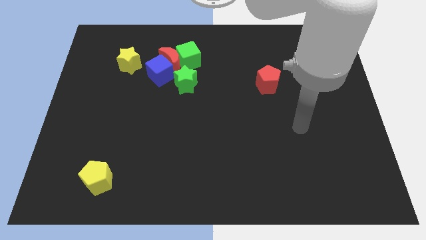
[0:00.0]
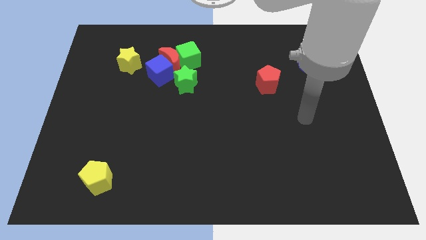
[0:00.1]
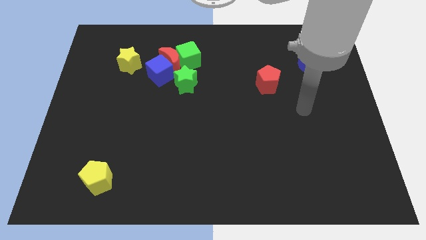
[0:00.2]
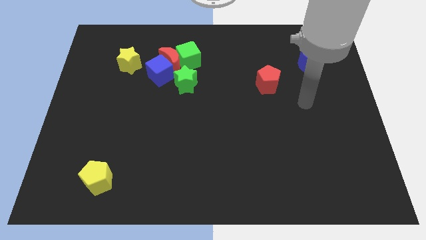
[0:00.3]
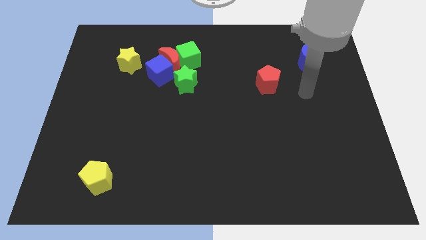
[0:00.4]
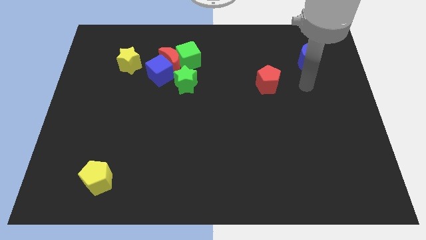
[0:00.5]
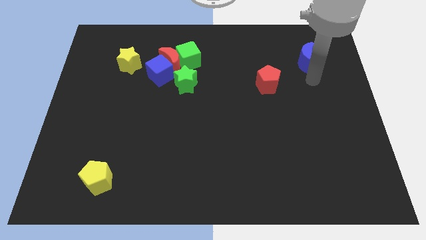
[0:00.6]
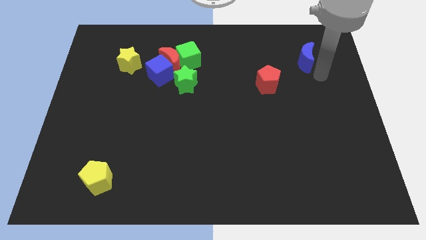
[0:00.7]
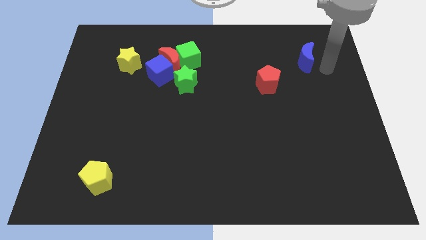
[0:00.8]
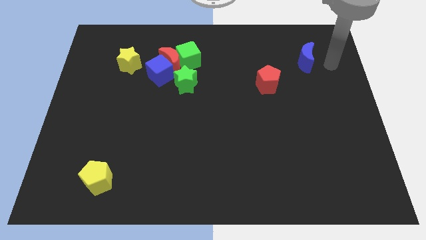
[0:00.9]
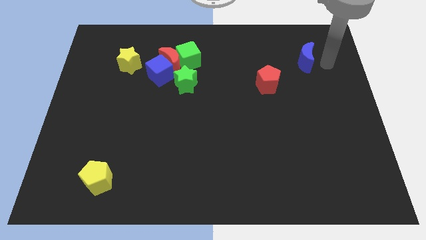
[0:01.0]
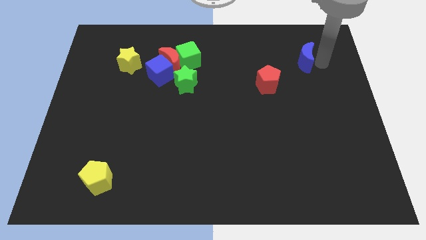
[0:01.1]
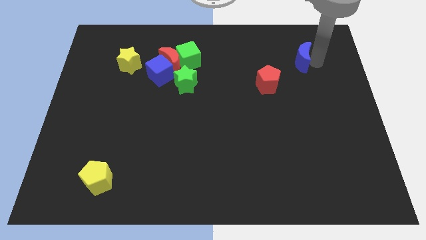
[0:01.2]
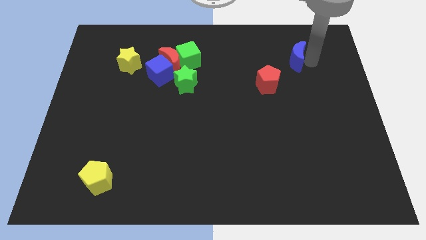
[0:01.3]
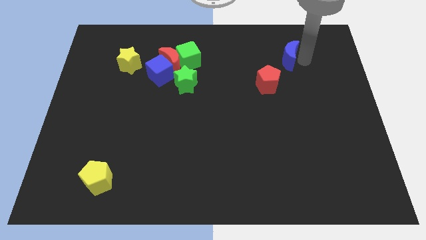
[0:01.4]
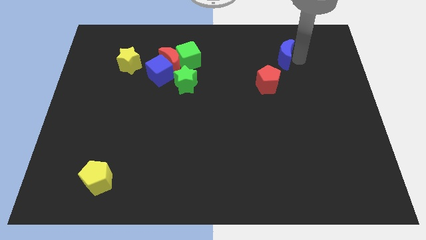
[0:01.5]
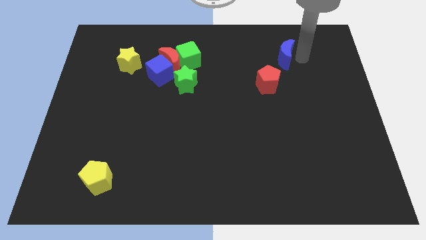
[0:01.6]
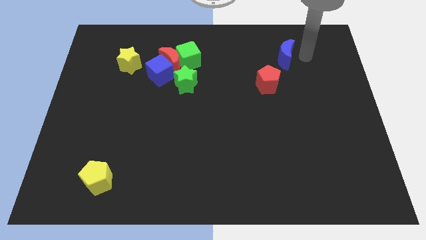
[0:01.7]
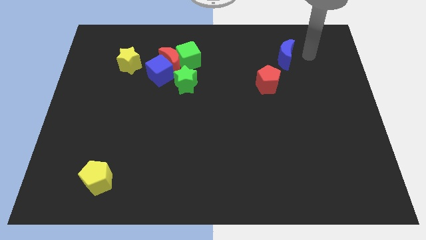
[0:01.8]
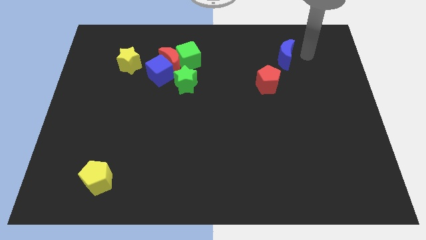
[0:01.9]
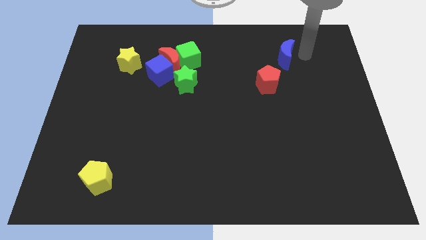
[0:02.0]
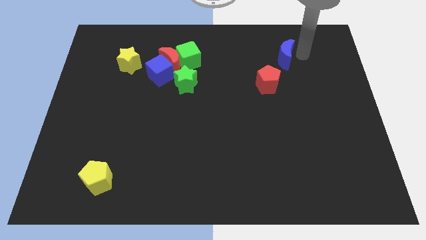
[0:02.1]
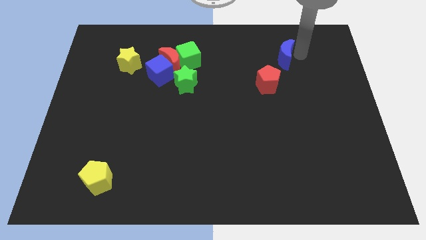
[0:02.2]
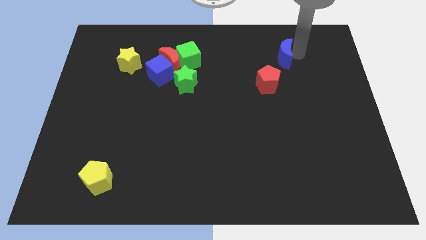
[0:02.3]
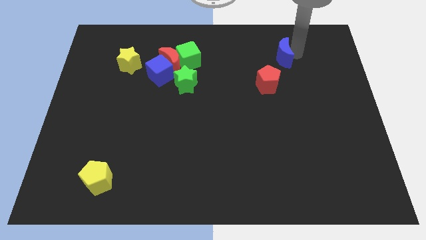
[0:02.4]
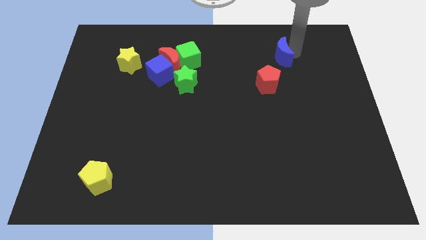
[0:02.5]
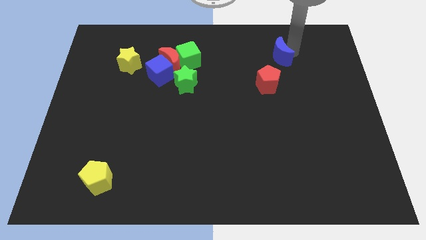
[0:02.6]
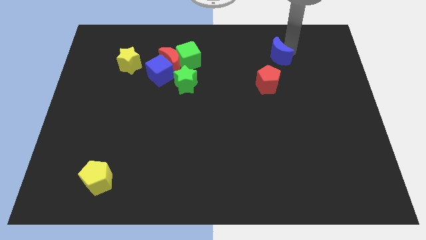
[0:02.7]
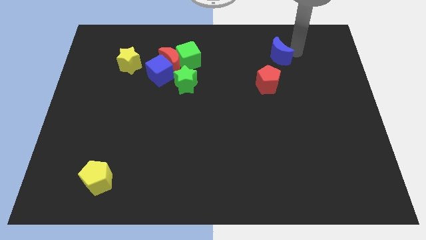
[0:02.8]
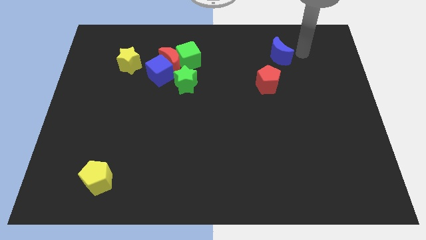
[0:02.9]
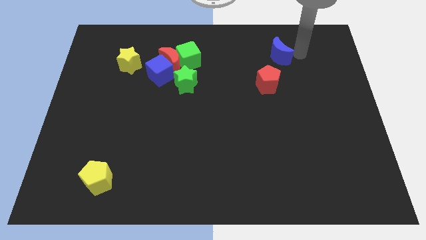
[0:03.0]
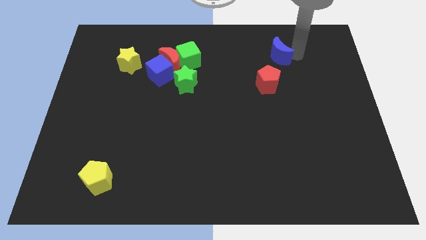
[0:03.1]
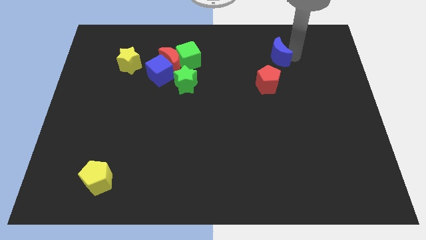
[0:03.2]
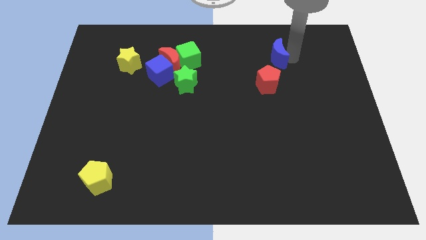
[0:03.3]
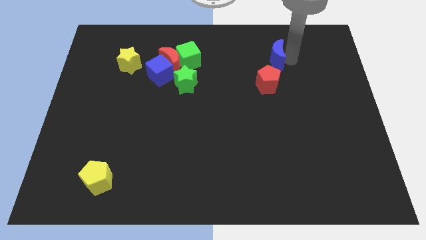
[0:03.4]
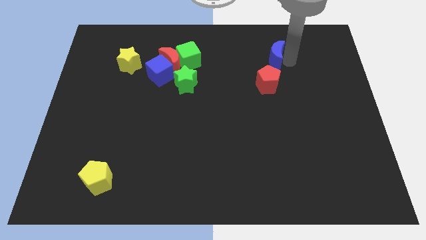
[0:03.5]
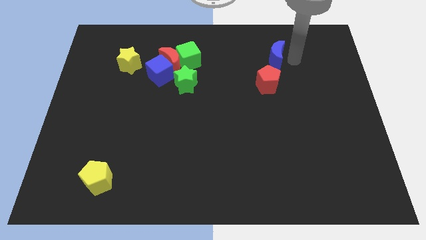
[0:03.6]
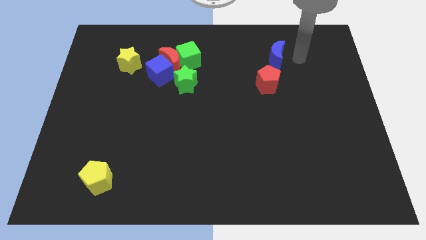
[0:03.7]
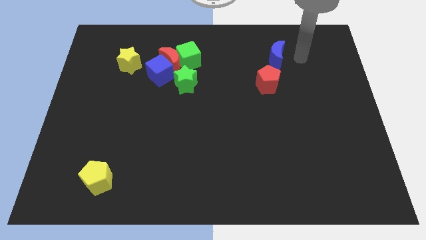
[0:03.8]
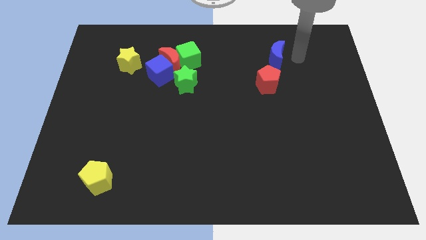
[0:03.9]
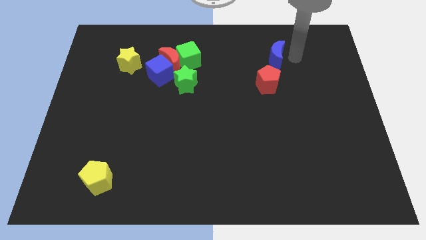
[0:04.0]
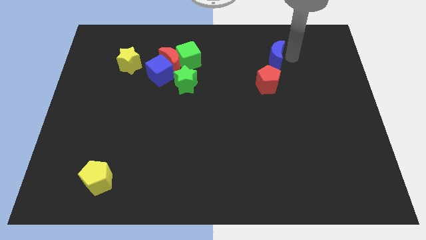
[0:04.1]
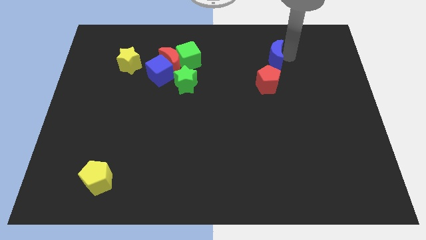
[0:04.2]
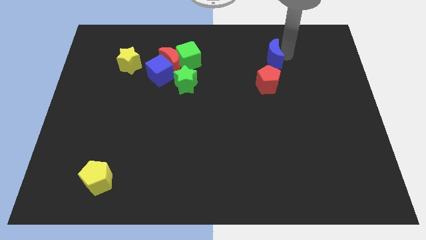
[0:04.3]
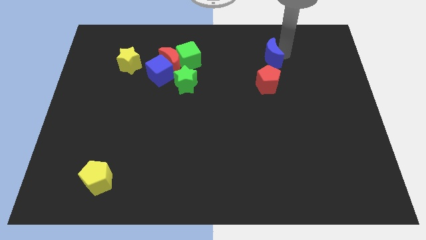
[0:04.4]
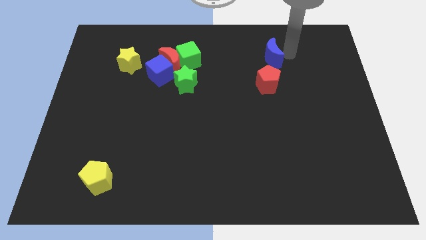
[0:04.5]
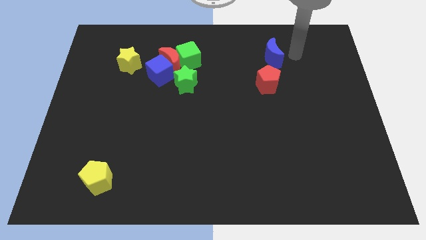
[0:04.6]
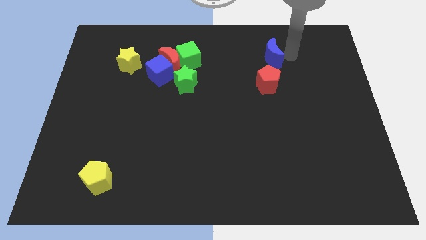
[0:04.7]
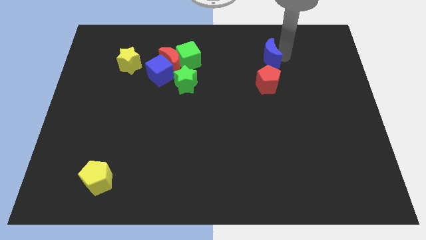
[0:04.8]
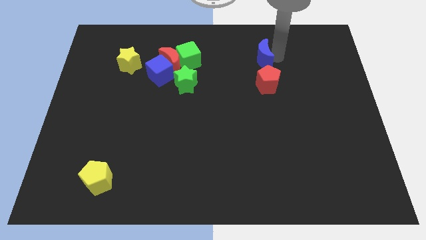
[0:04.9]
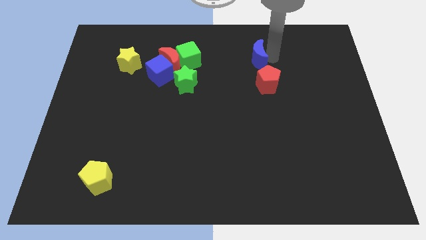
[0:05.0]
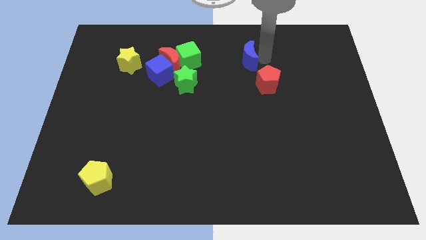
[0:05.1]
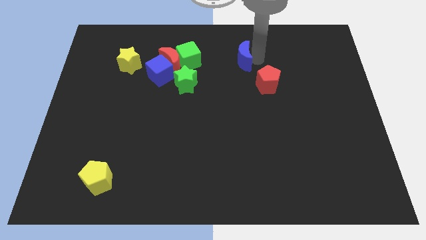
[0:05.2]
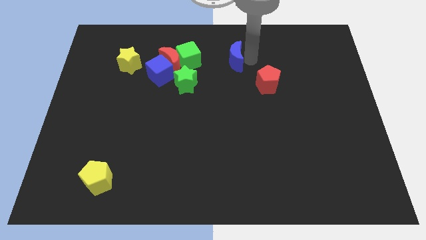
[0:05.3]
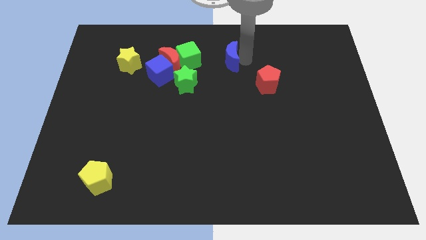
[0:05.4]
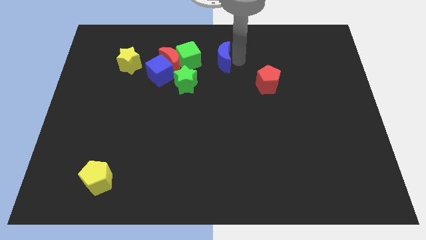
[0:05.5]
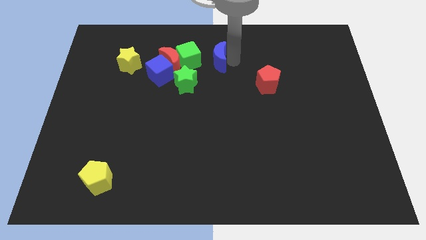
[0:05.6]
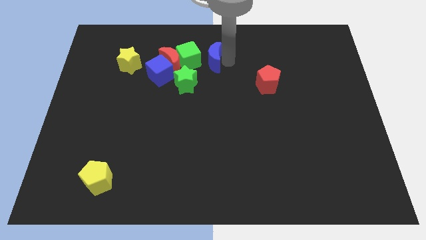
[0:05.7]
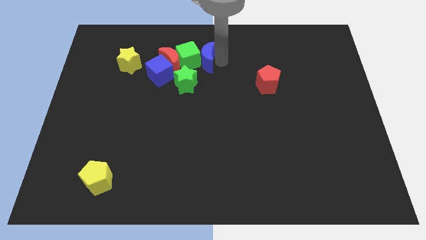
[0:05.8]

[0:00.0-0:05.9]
move the blue moon close to the green cube

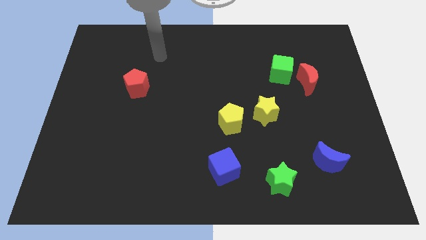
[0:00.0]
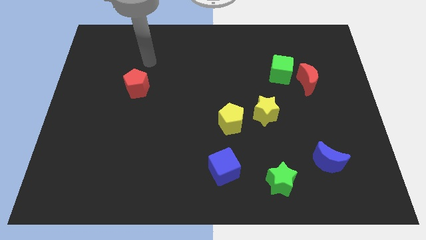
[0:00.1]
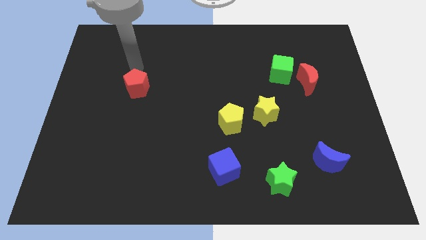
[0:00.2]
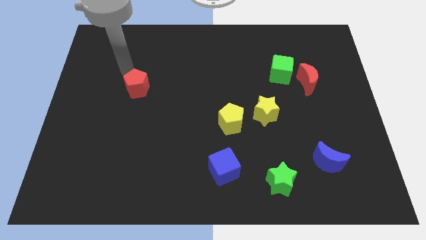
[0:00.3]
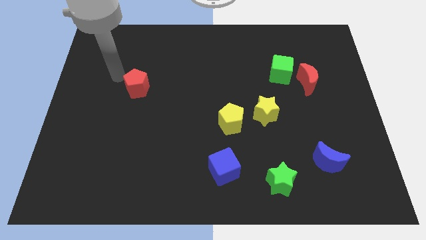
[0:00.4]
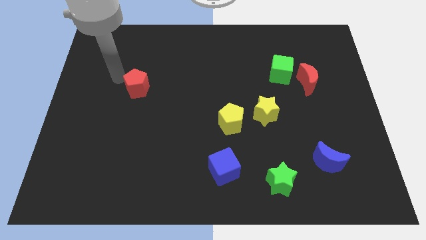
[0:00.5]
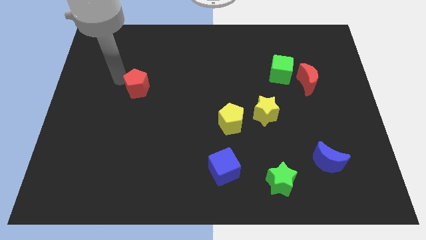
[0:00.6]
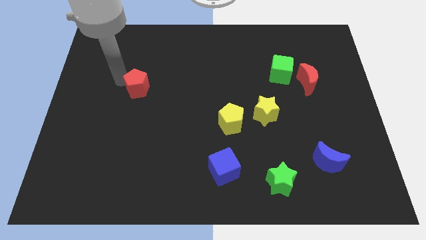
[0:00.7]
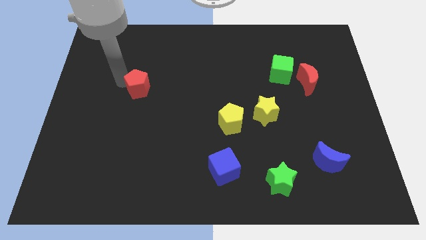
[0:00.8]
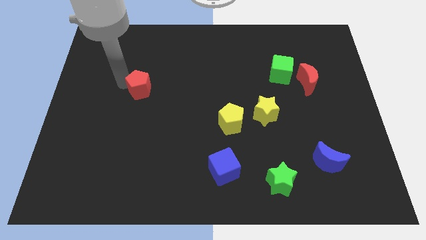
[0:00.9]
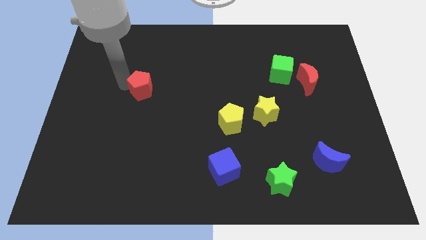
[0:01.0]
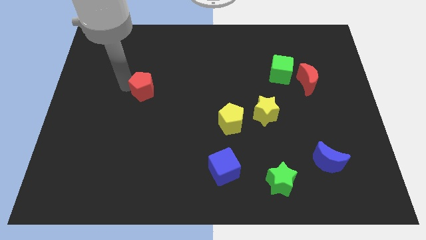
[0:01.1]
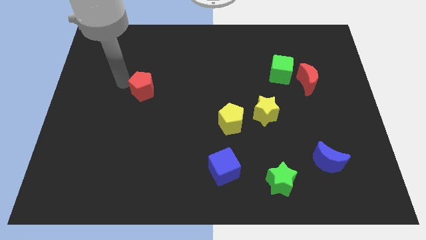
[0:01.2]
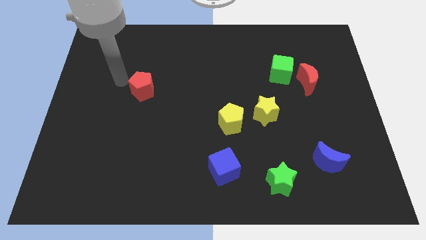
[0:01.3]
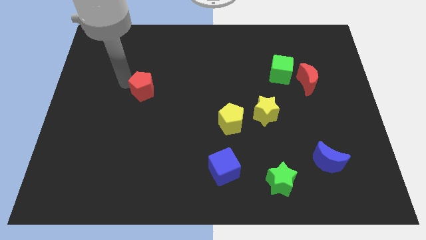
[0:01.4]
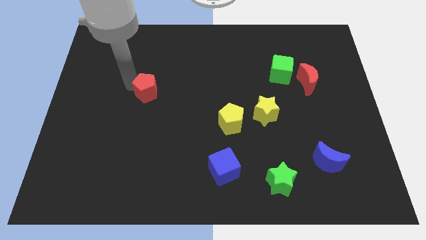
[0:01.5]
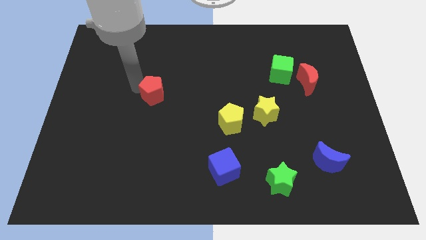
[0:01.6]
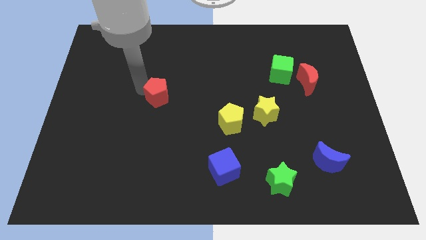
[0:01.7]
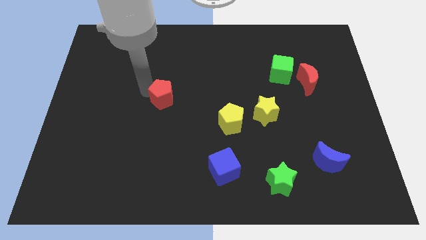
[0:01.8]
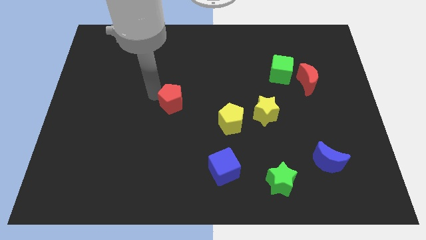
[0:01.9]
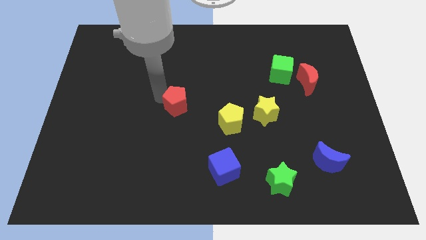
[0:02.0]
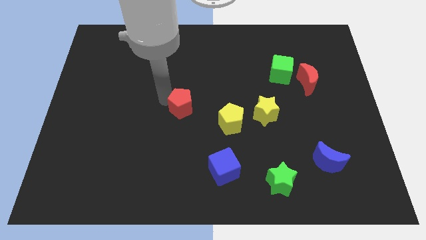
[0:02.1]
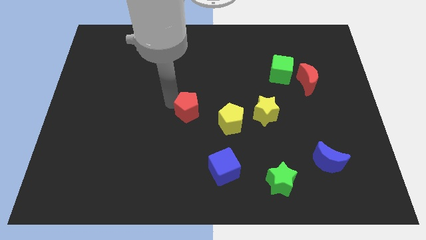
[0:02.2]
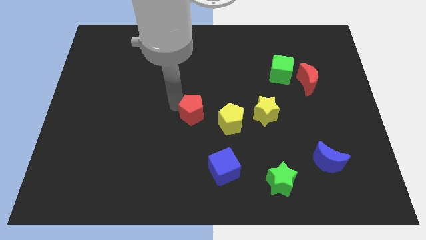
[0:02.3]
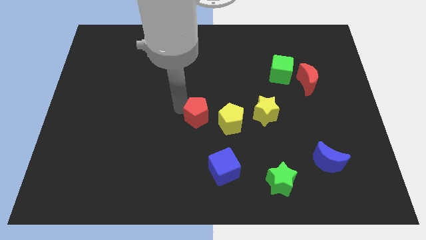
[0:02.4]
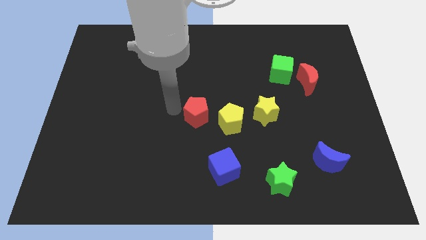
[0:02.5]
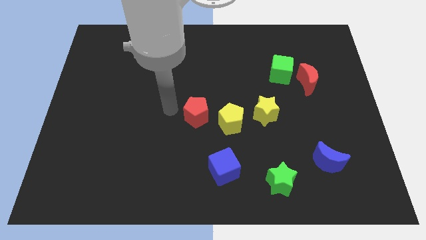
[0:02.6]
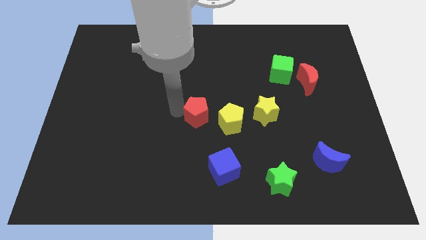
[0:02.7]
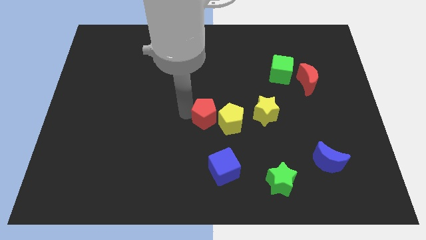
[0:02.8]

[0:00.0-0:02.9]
move the red pentagon next to the yellow pentagon
